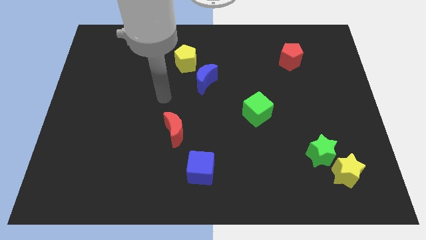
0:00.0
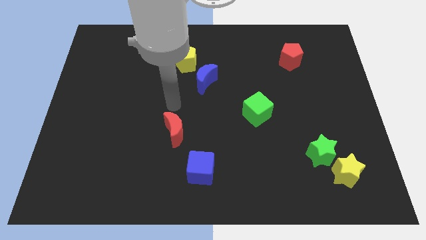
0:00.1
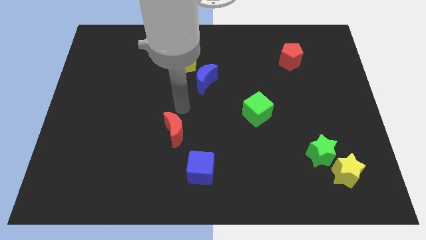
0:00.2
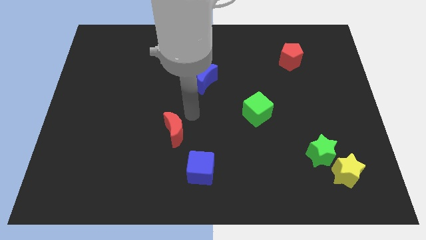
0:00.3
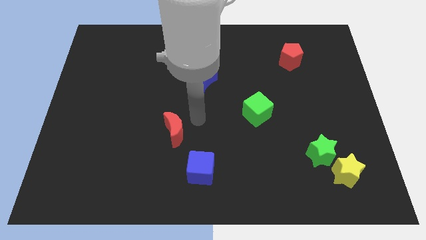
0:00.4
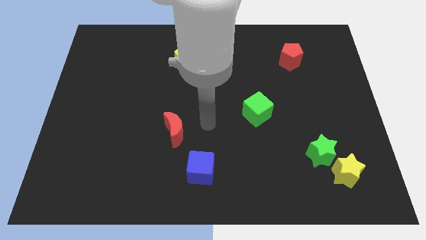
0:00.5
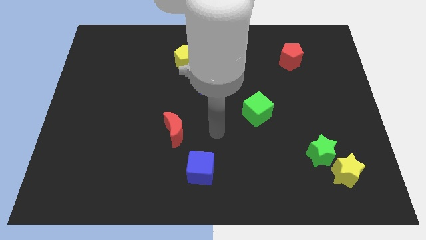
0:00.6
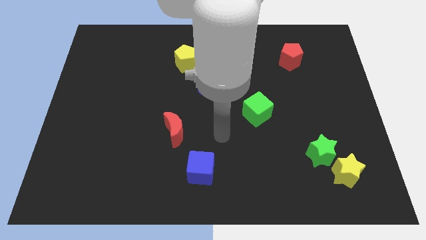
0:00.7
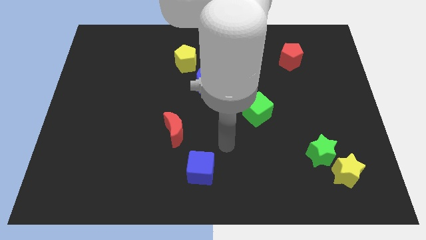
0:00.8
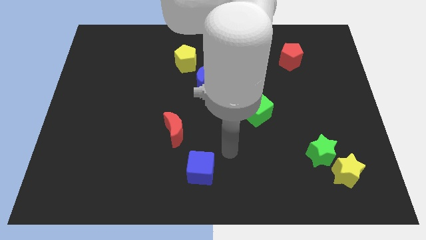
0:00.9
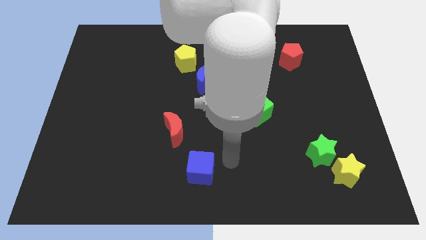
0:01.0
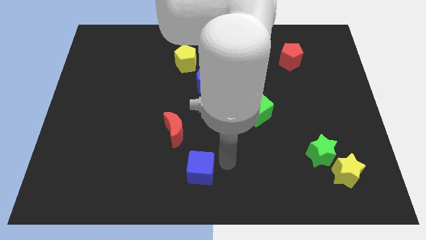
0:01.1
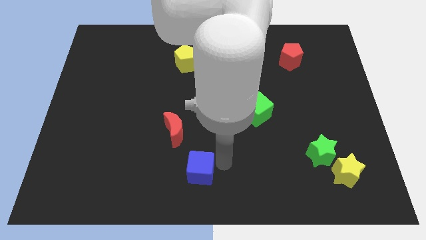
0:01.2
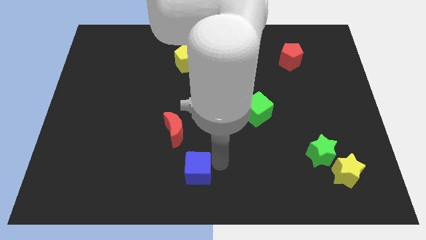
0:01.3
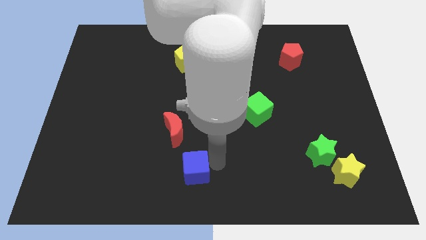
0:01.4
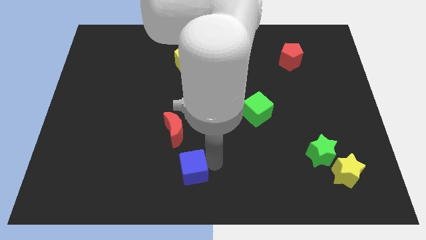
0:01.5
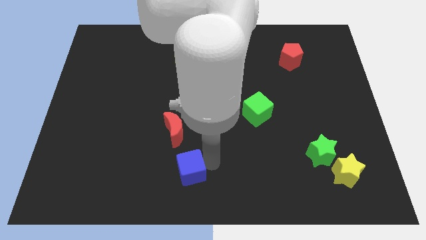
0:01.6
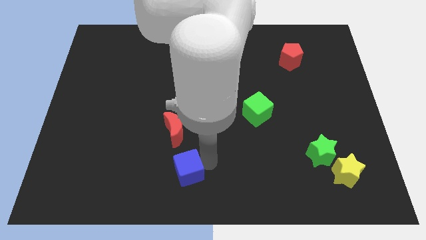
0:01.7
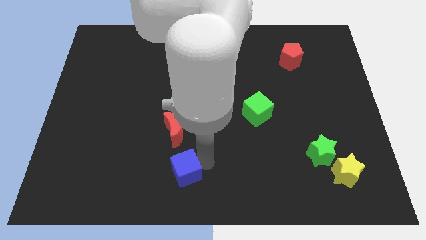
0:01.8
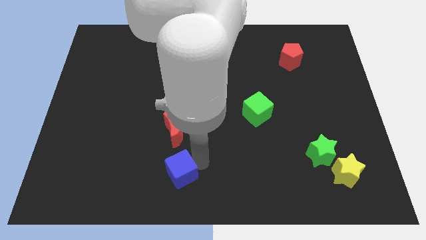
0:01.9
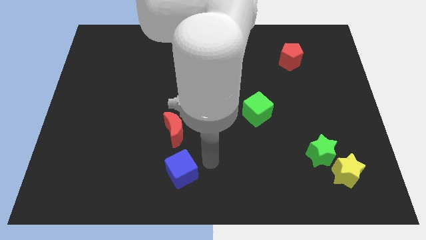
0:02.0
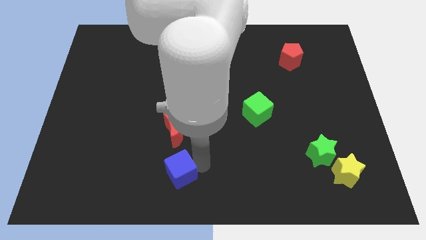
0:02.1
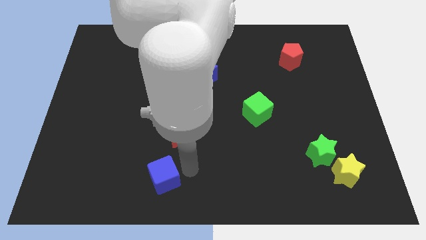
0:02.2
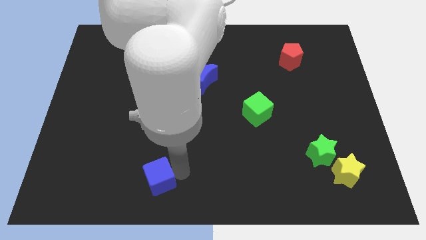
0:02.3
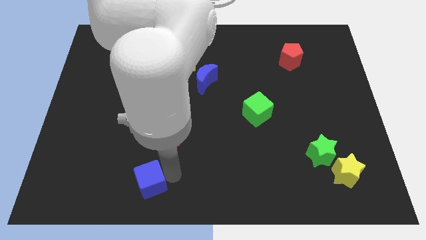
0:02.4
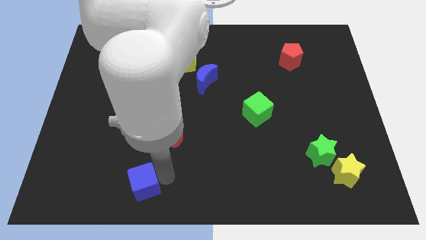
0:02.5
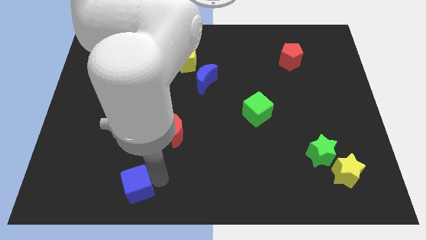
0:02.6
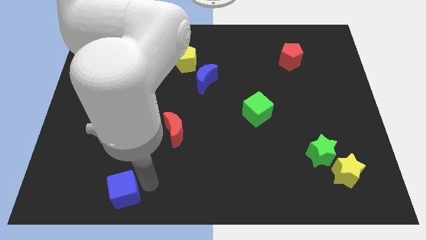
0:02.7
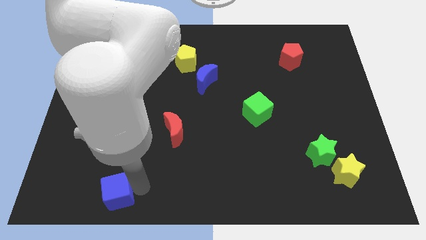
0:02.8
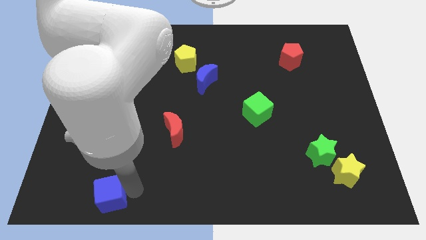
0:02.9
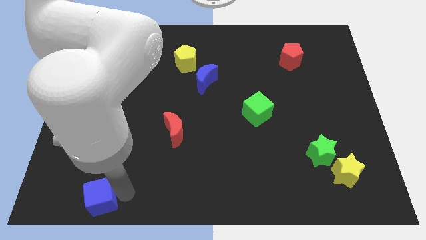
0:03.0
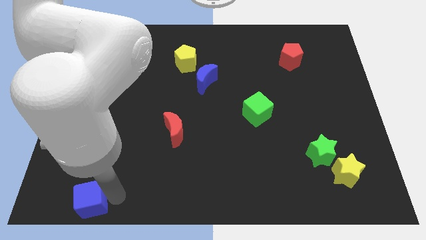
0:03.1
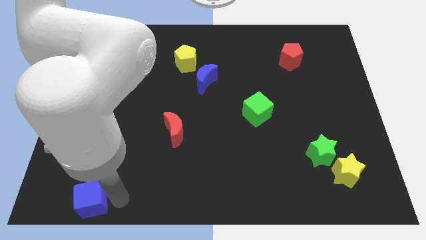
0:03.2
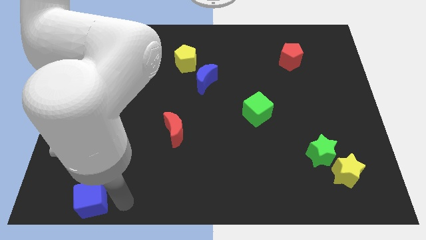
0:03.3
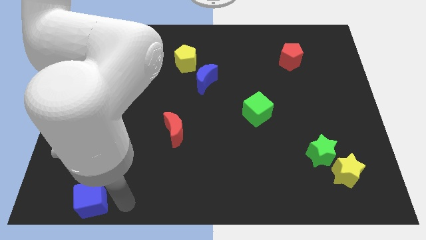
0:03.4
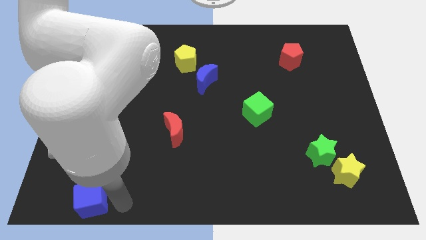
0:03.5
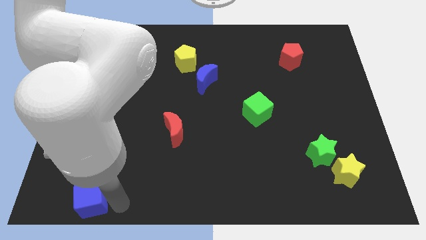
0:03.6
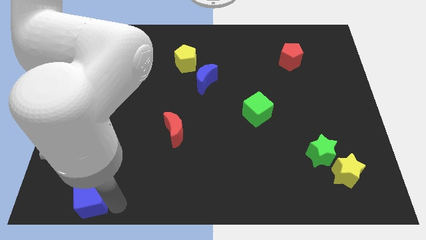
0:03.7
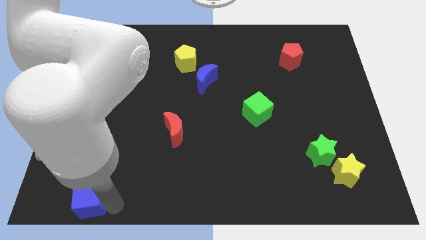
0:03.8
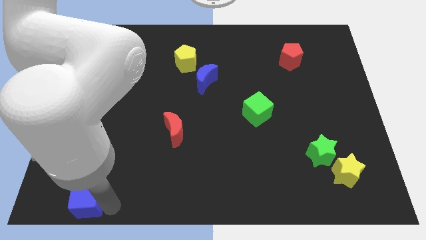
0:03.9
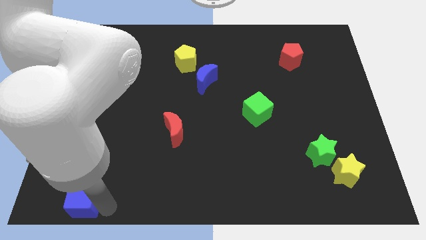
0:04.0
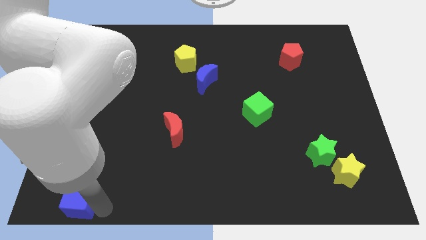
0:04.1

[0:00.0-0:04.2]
push the blue cube to the lower left corner

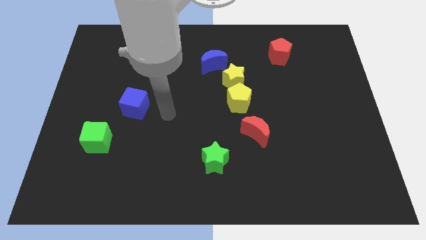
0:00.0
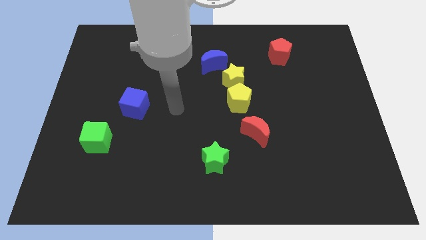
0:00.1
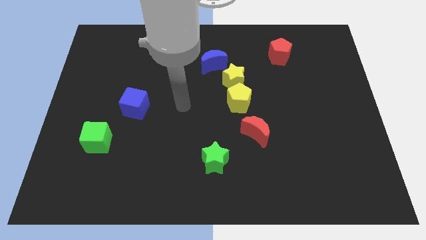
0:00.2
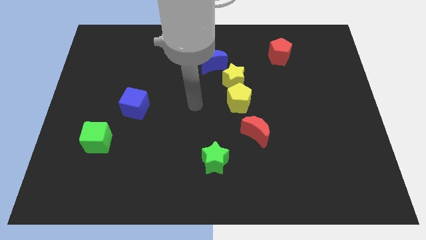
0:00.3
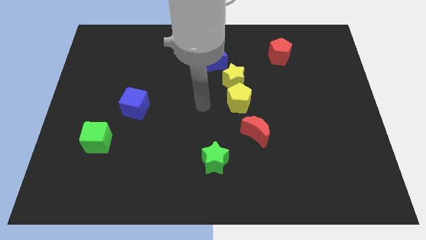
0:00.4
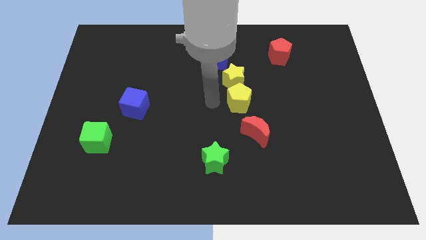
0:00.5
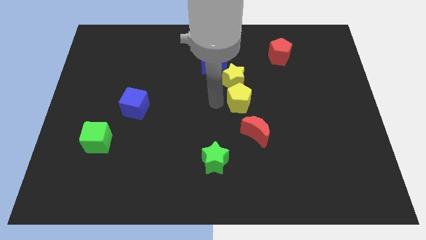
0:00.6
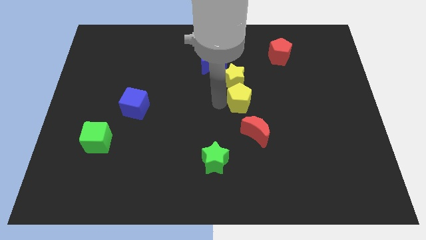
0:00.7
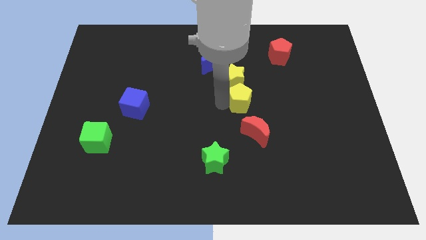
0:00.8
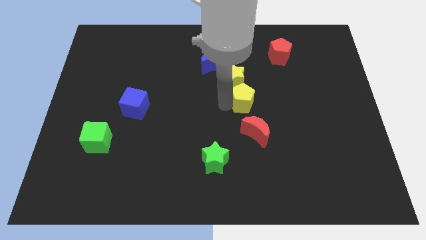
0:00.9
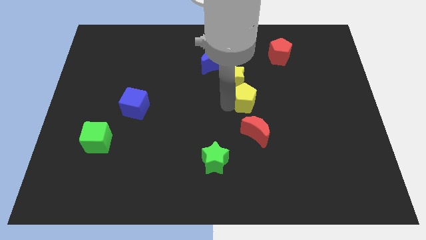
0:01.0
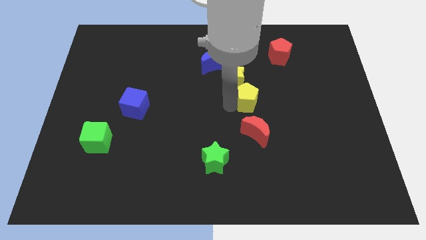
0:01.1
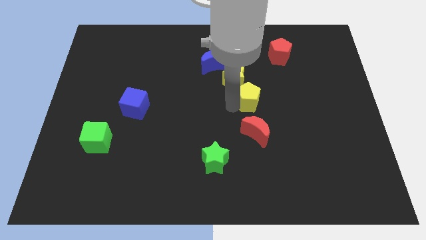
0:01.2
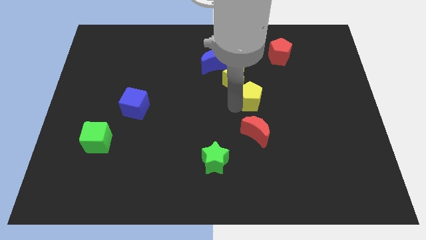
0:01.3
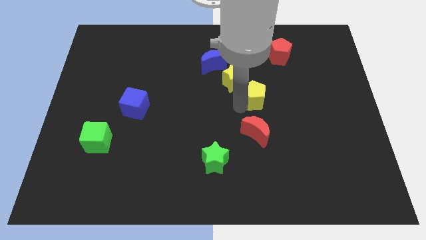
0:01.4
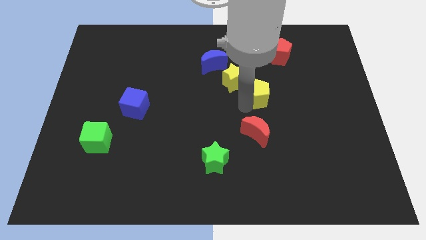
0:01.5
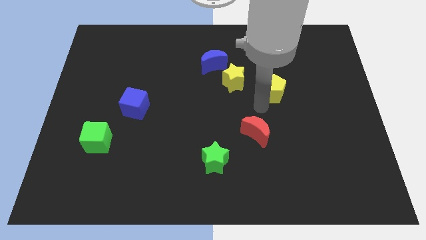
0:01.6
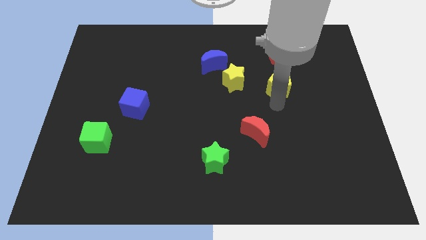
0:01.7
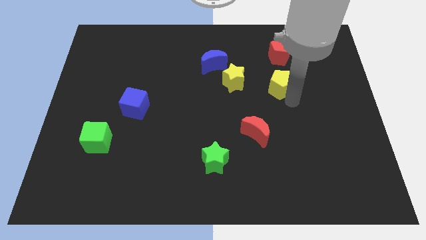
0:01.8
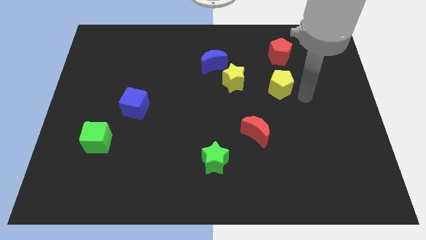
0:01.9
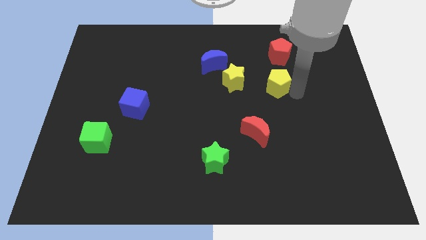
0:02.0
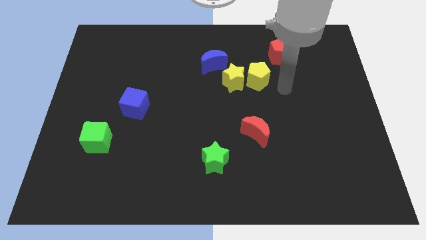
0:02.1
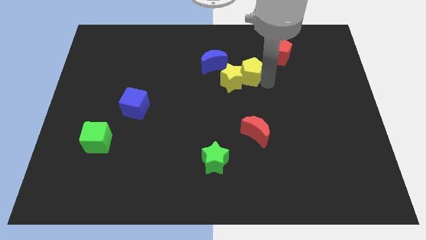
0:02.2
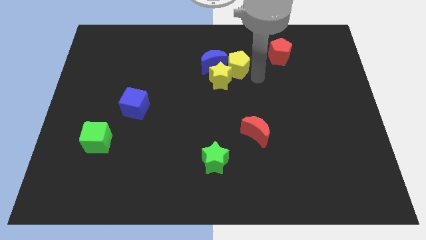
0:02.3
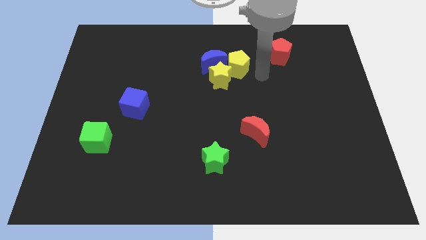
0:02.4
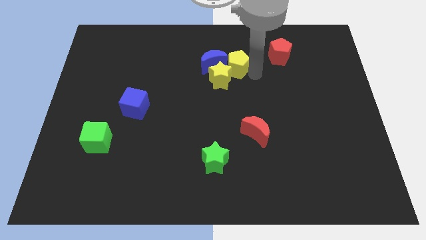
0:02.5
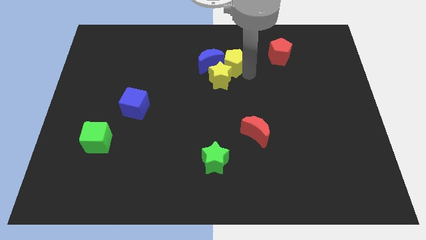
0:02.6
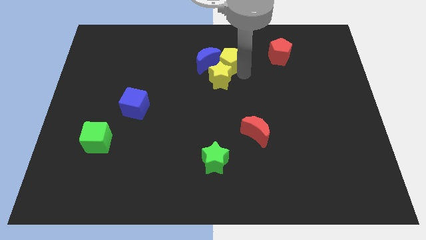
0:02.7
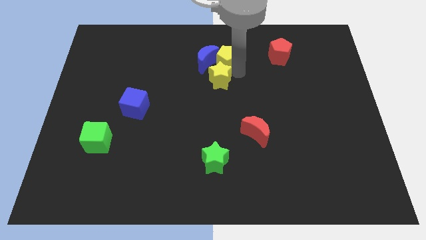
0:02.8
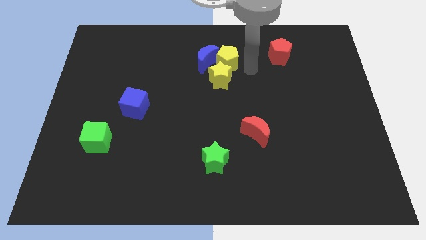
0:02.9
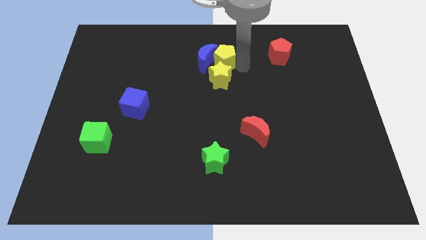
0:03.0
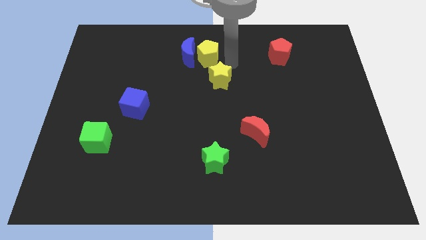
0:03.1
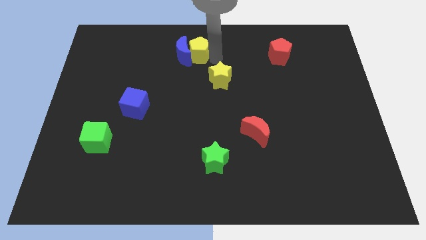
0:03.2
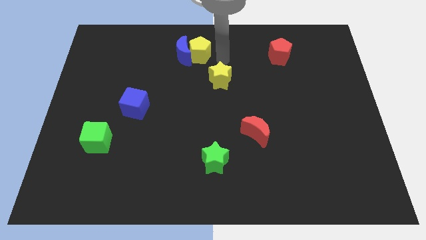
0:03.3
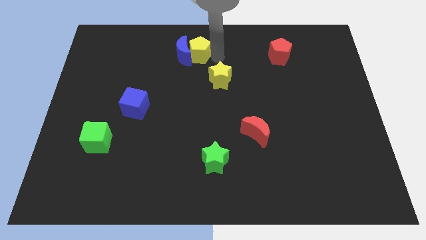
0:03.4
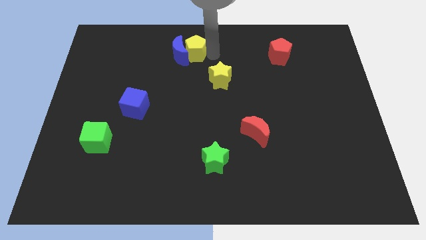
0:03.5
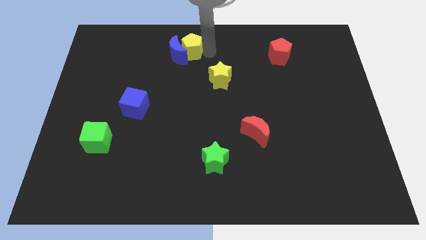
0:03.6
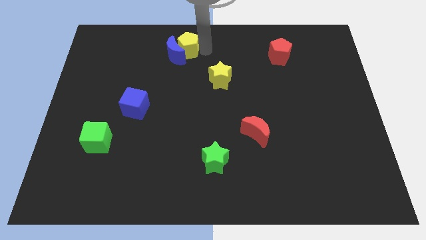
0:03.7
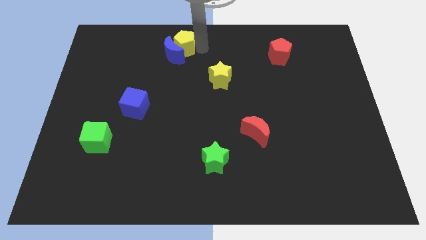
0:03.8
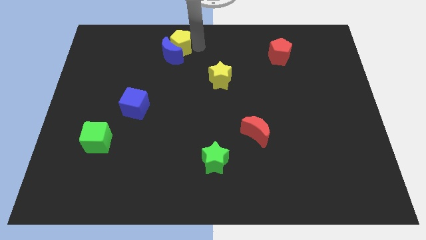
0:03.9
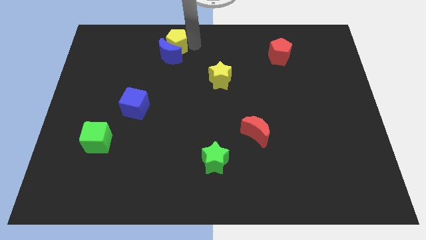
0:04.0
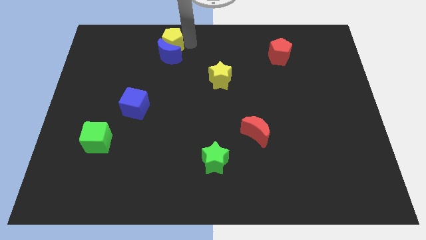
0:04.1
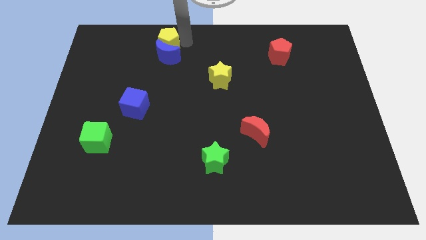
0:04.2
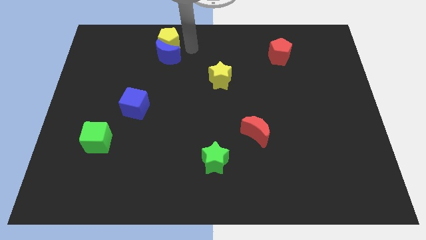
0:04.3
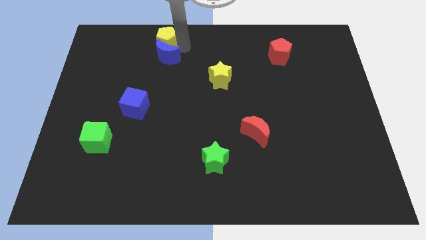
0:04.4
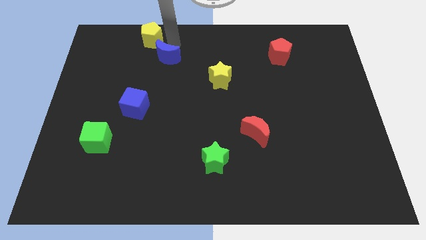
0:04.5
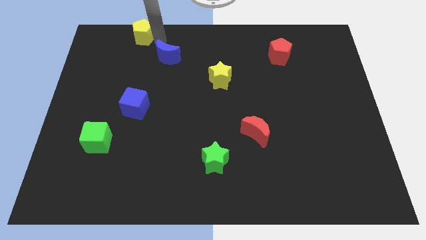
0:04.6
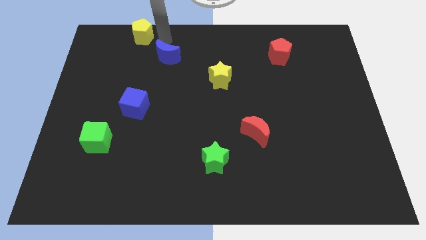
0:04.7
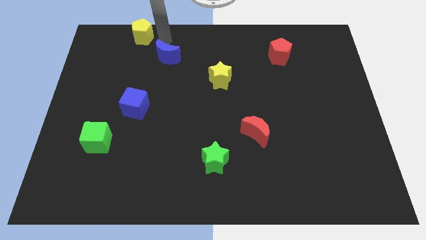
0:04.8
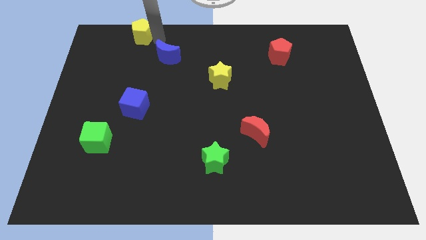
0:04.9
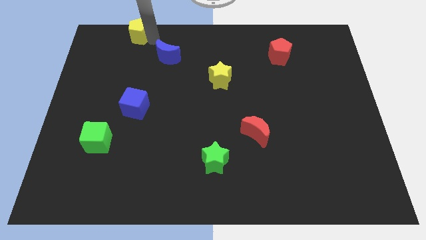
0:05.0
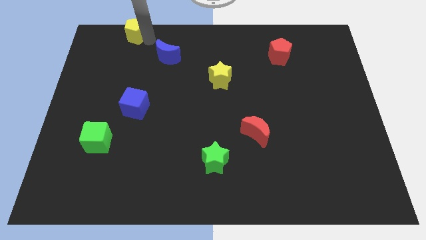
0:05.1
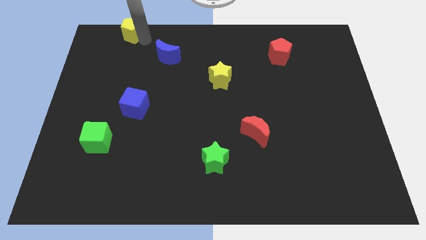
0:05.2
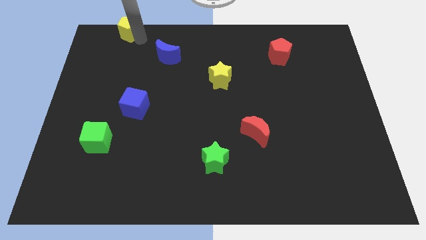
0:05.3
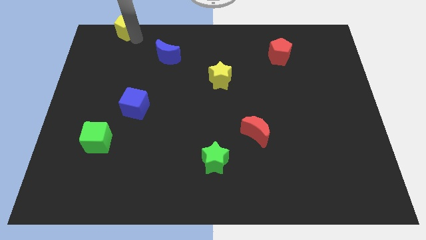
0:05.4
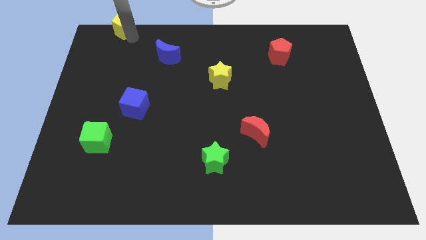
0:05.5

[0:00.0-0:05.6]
put the yellow pentagon to the top left corner
